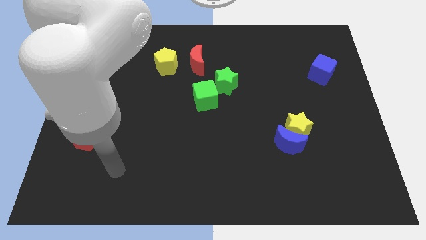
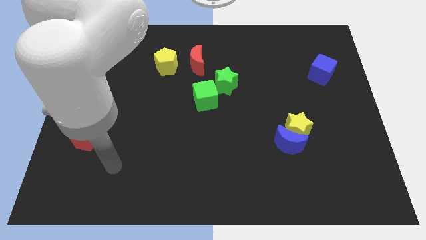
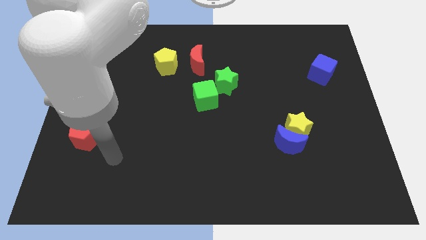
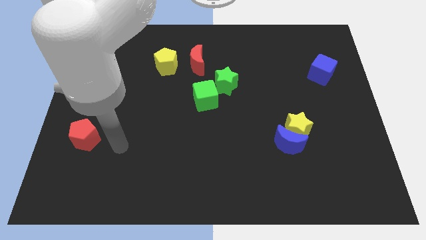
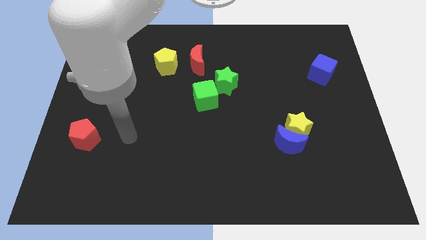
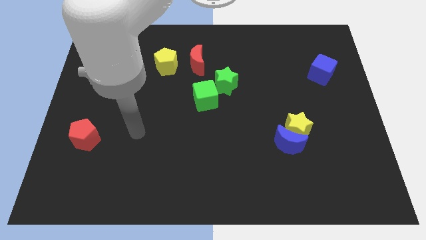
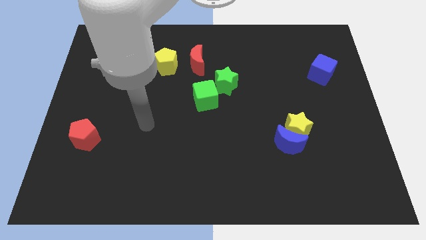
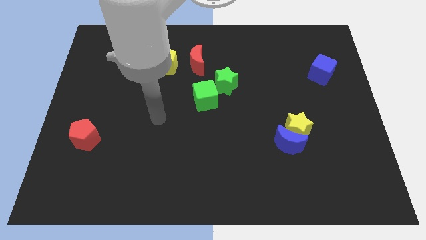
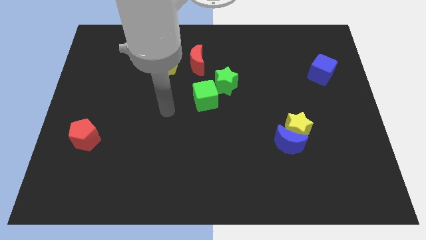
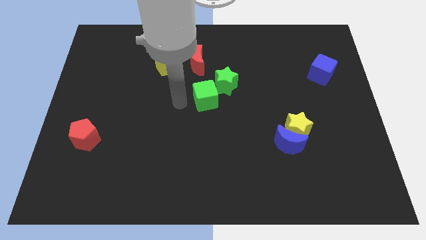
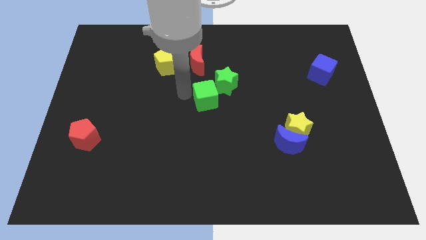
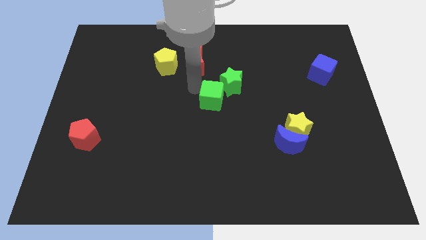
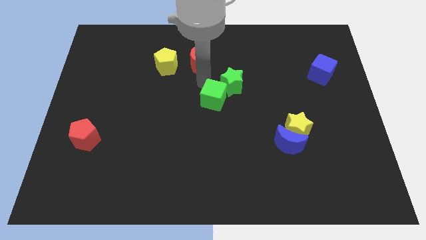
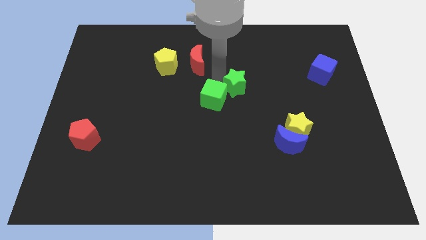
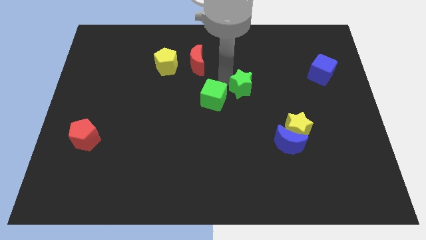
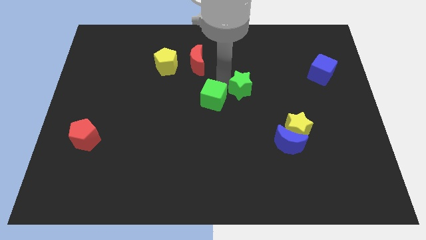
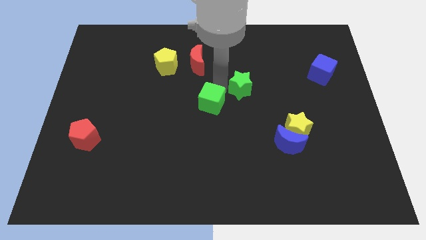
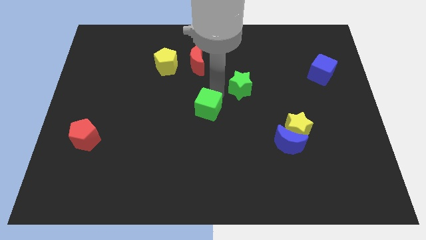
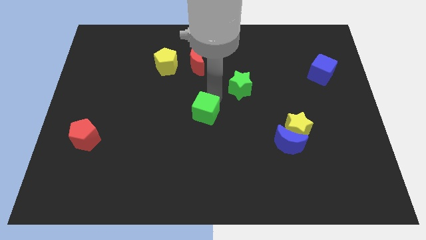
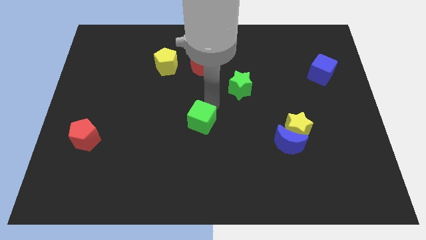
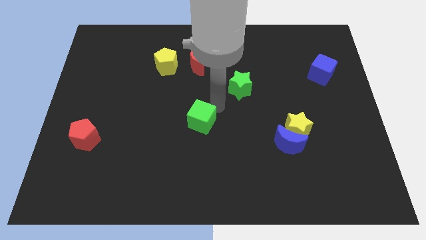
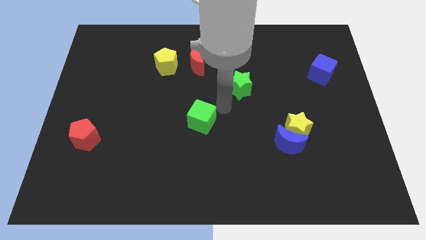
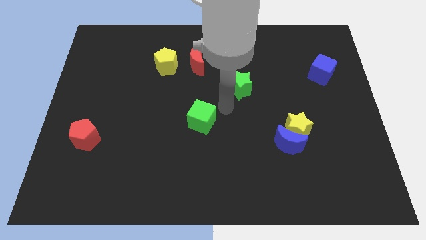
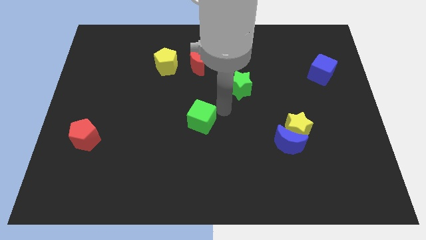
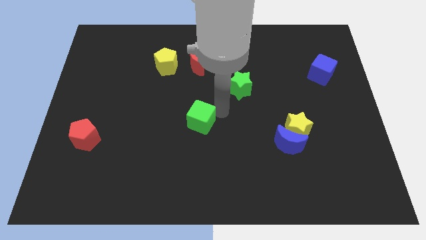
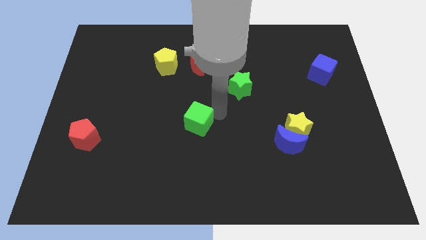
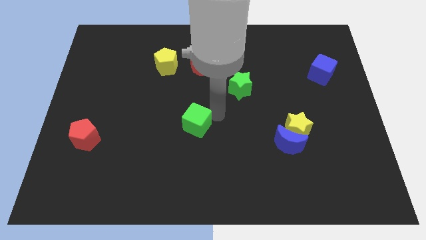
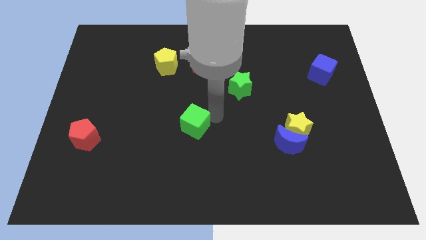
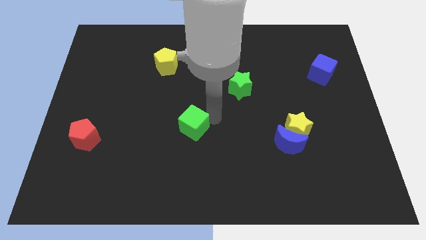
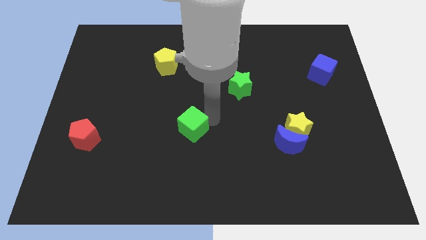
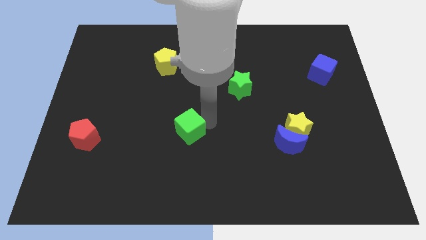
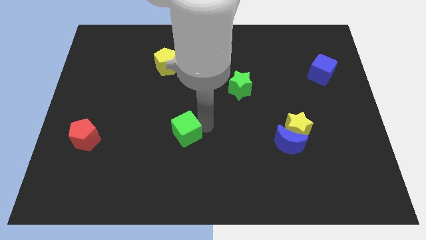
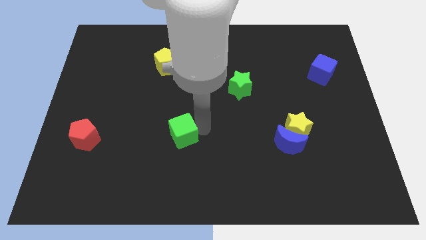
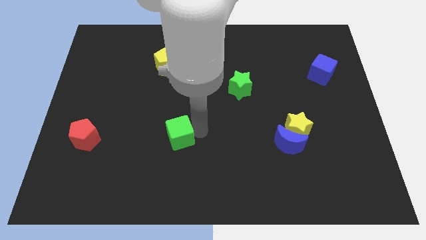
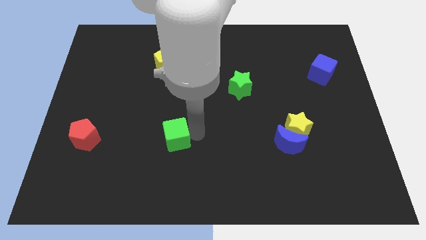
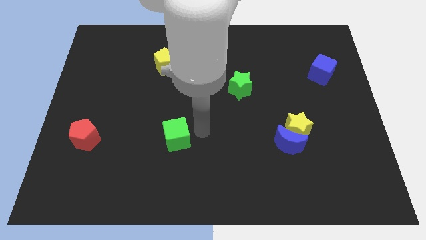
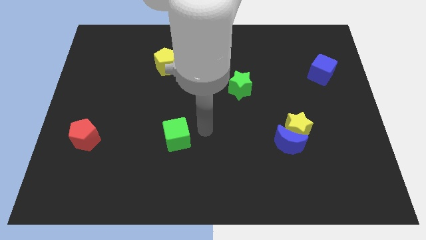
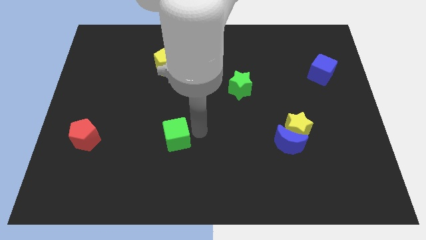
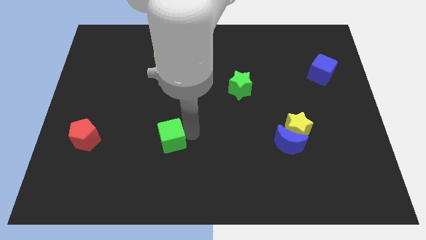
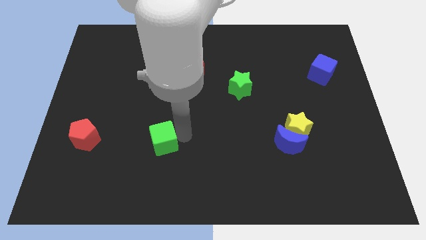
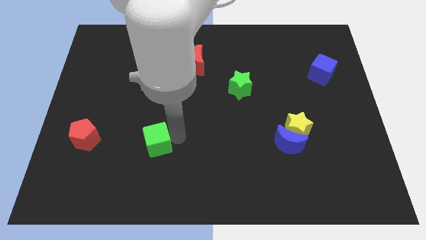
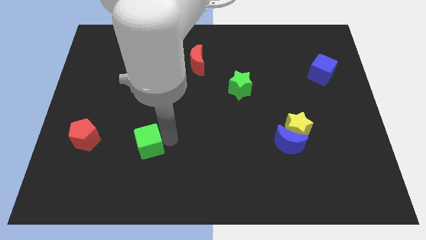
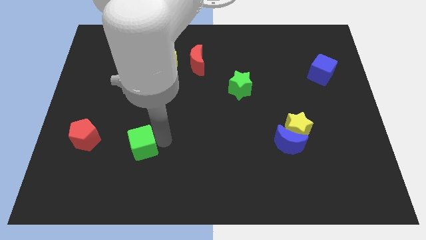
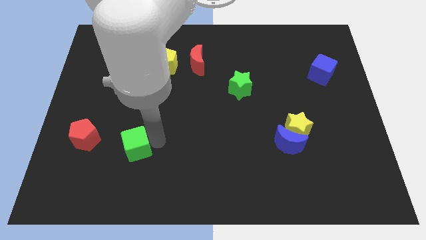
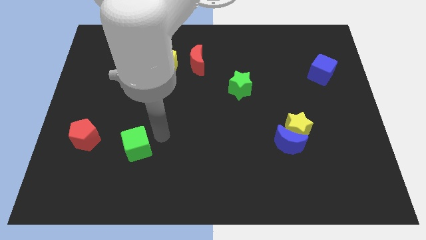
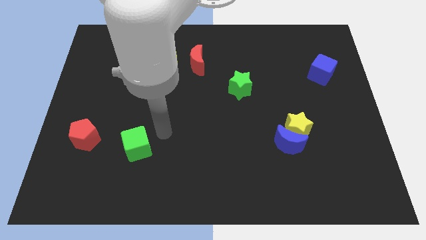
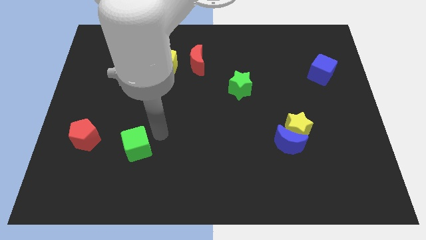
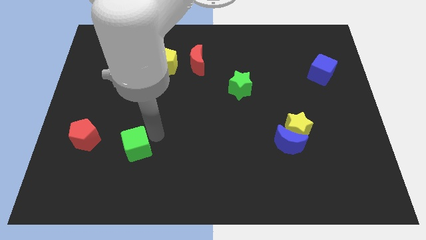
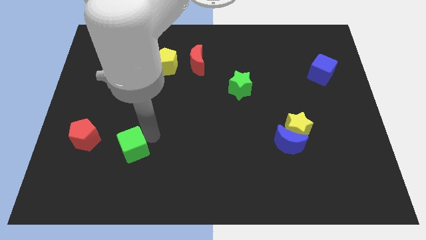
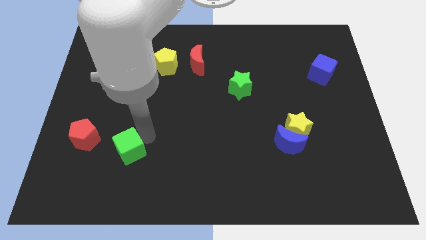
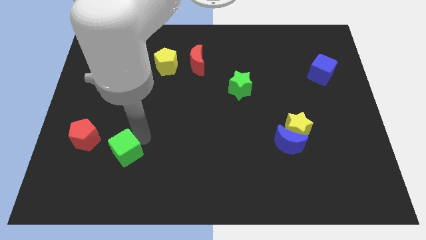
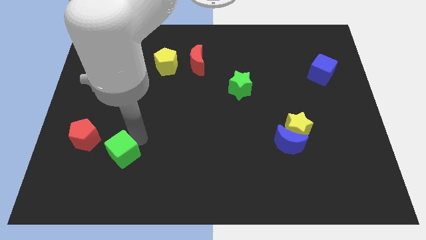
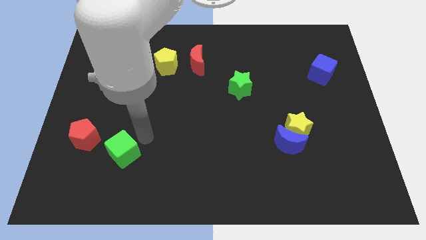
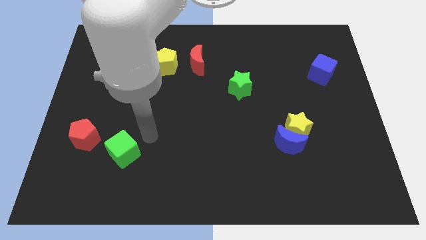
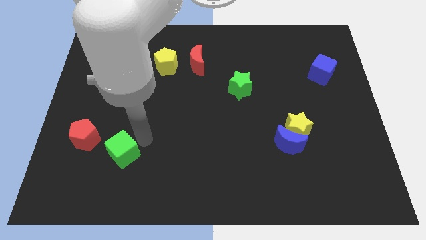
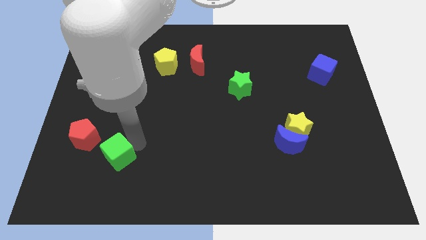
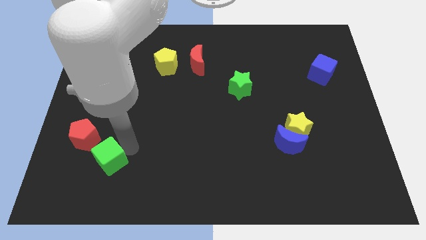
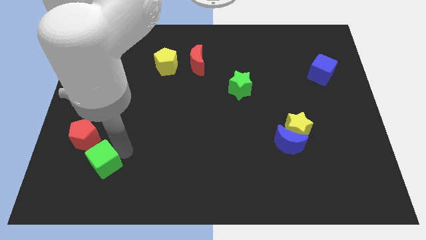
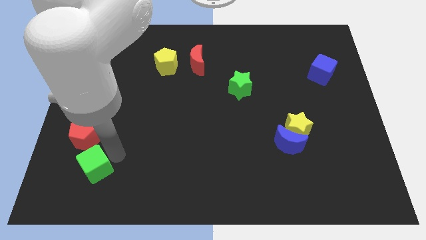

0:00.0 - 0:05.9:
push the green cube to the bottom side of the red pentagon

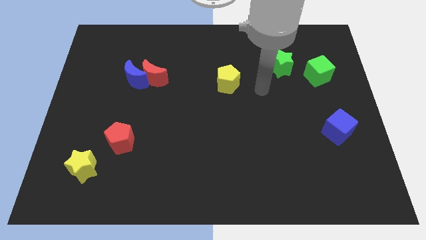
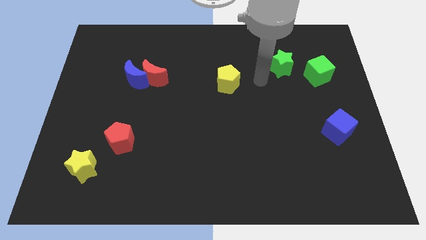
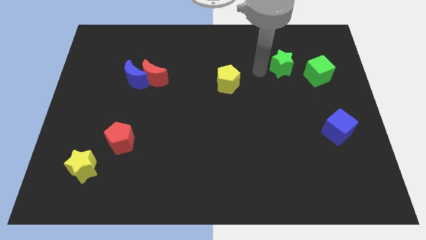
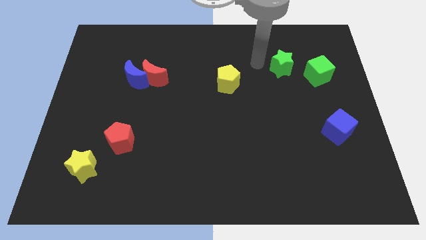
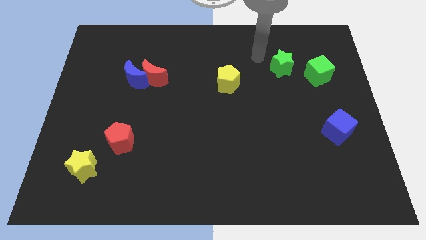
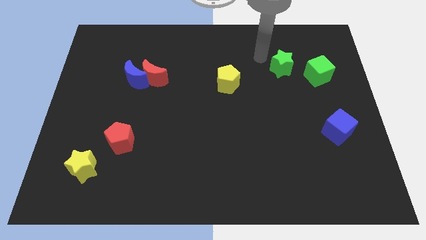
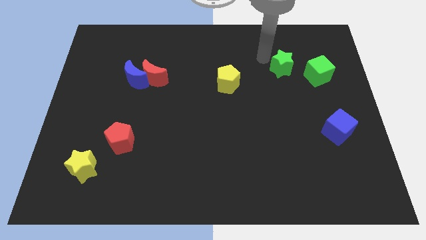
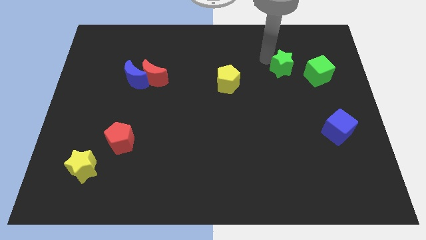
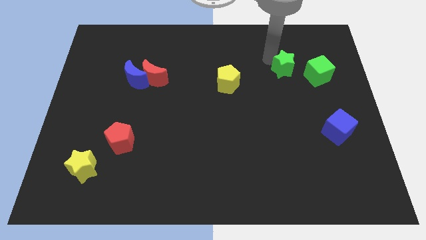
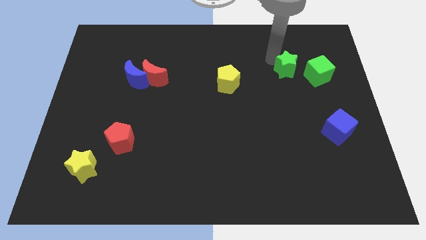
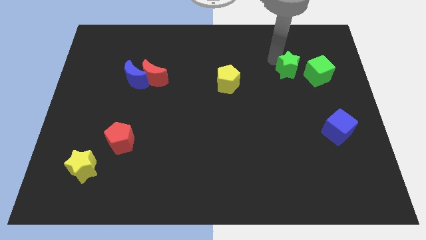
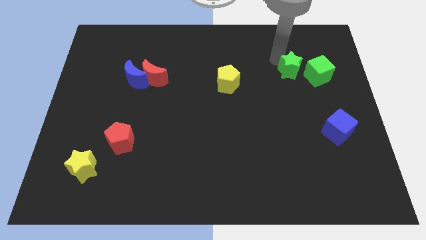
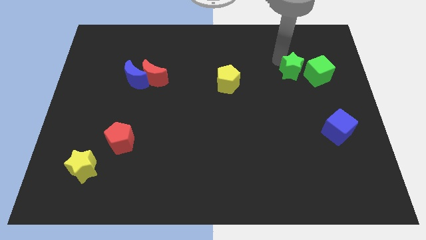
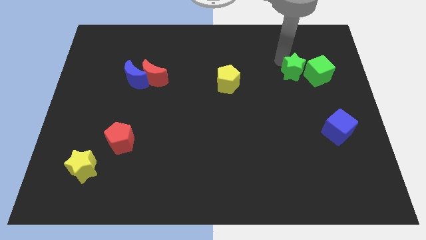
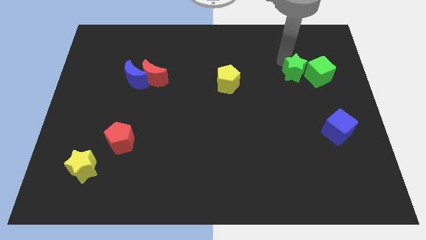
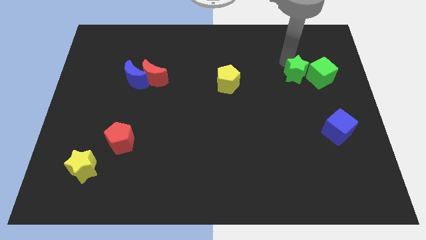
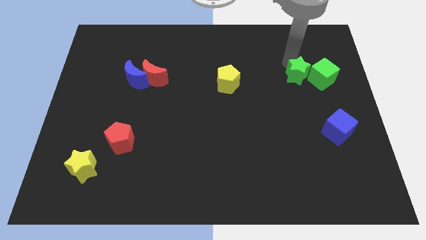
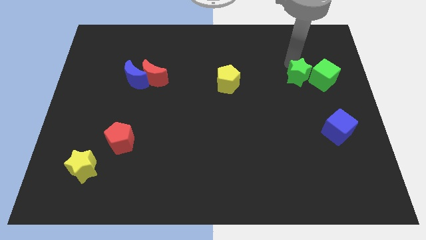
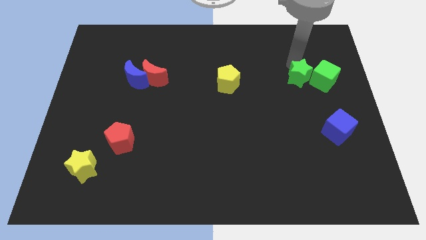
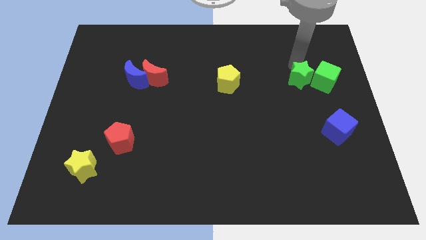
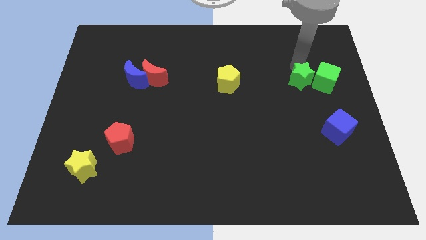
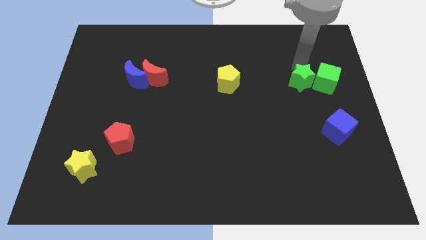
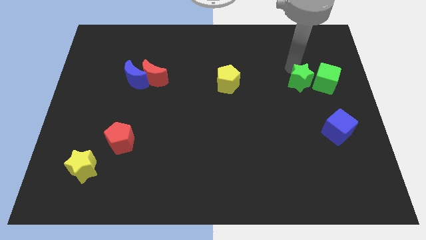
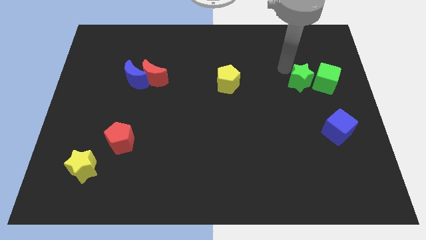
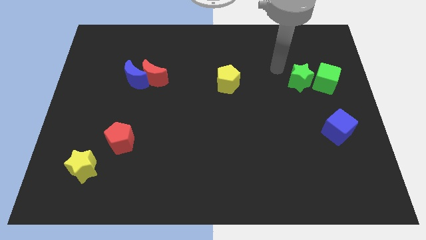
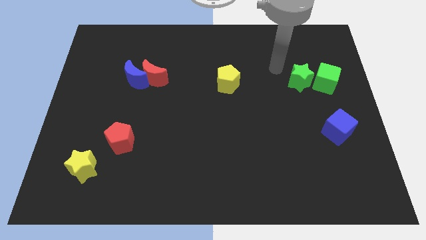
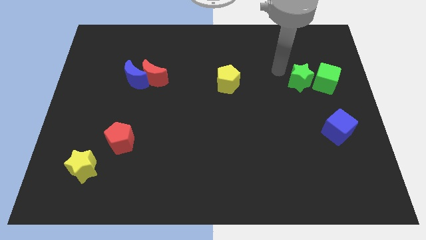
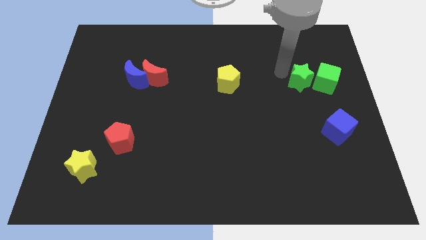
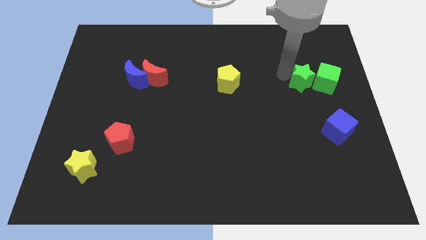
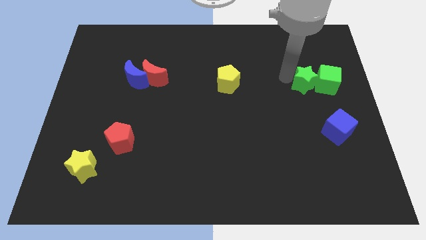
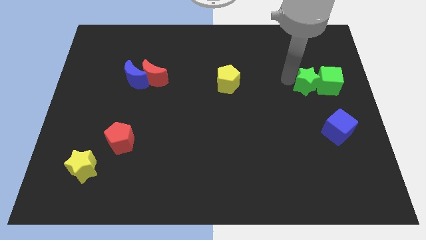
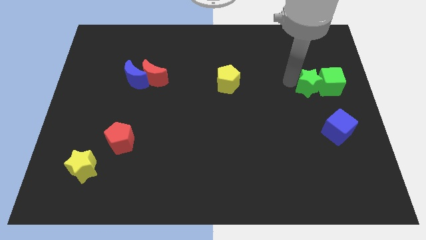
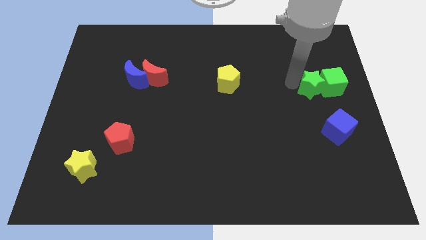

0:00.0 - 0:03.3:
push the green star to the top side of the blue cube
